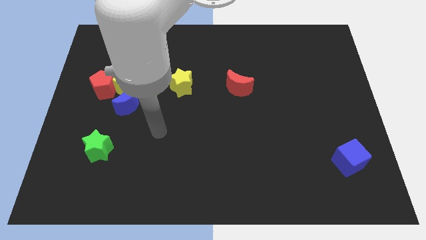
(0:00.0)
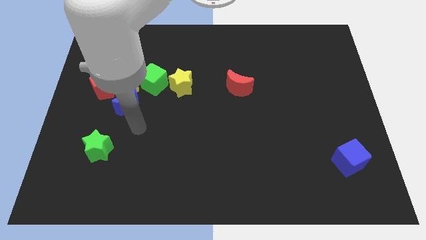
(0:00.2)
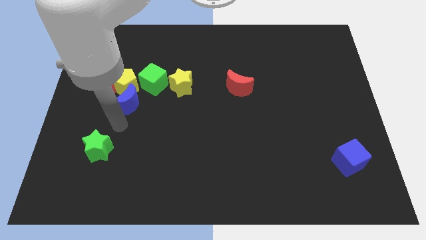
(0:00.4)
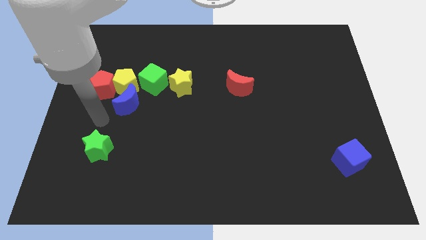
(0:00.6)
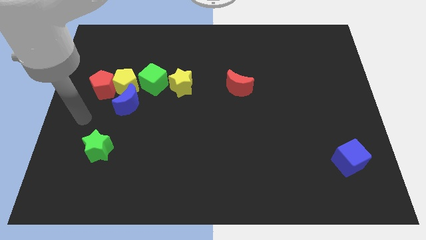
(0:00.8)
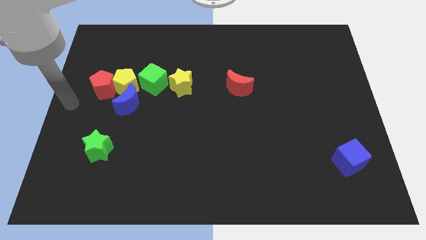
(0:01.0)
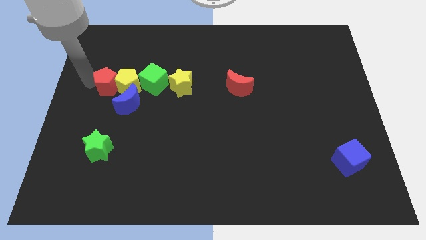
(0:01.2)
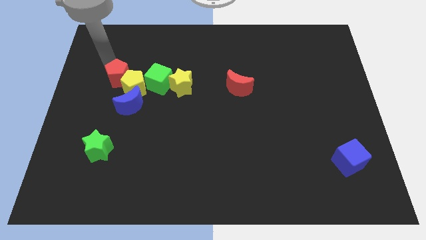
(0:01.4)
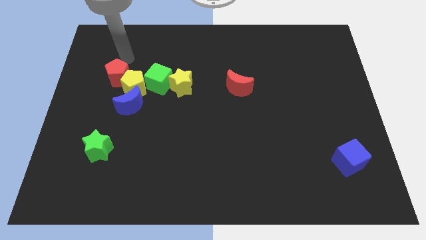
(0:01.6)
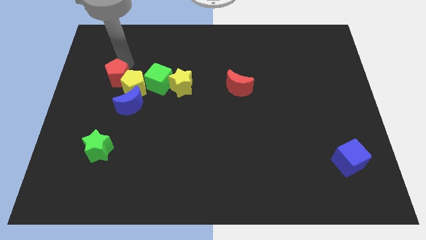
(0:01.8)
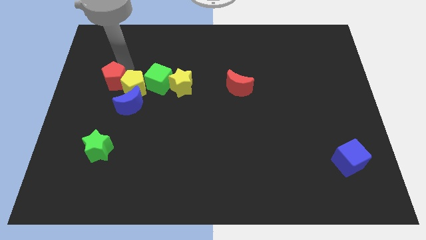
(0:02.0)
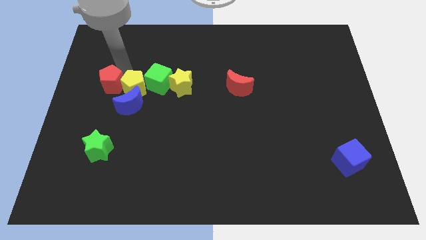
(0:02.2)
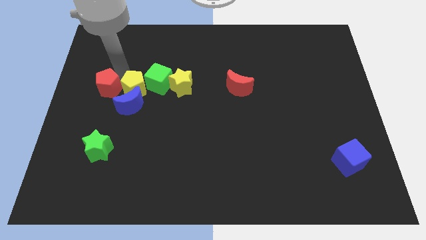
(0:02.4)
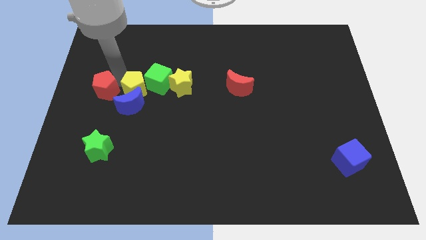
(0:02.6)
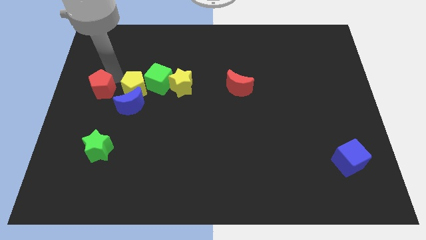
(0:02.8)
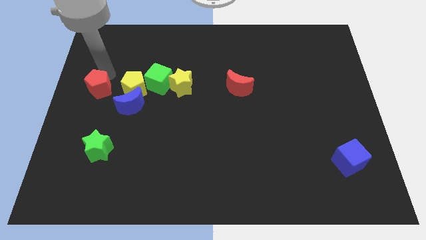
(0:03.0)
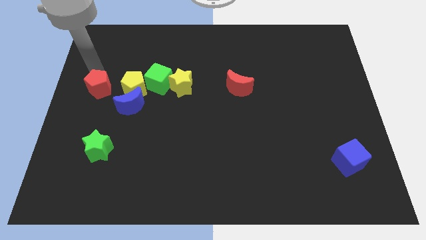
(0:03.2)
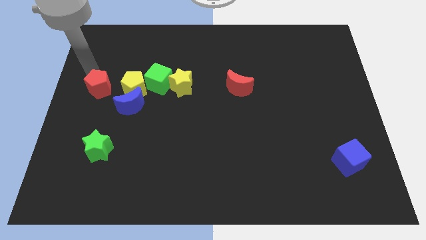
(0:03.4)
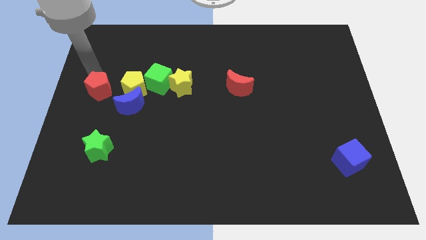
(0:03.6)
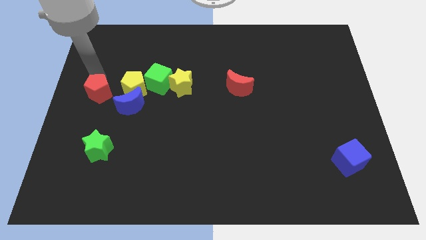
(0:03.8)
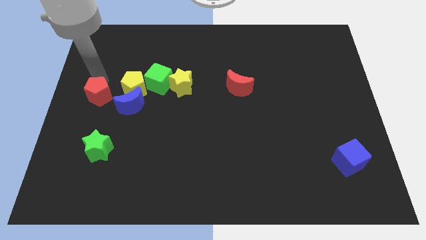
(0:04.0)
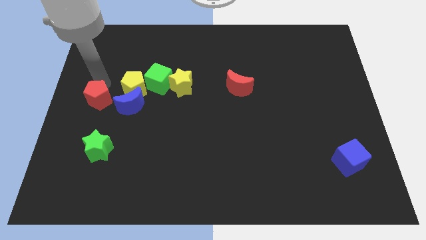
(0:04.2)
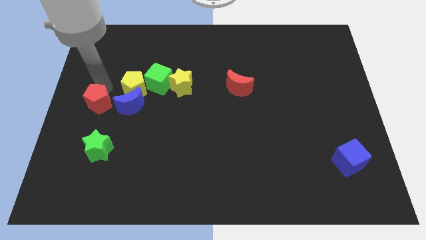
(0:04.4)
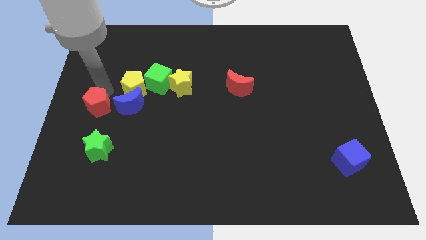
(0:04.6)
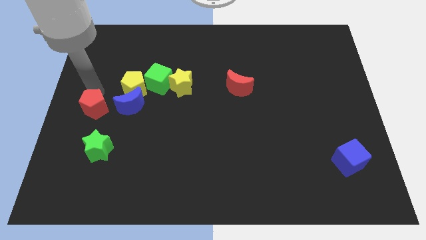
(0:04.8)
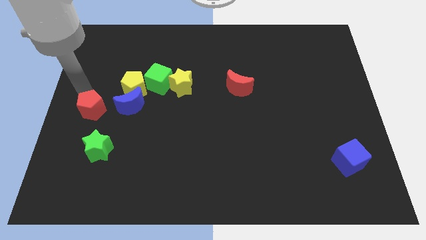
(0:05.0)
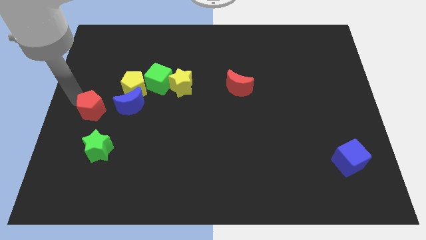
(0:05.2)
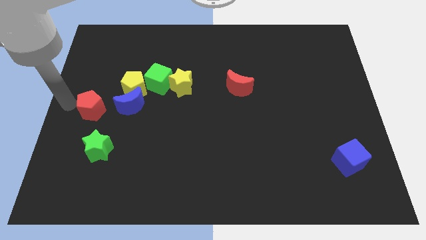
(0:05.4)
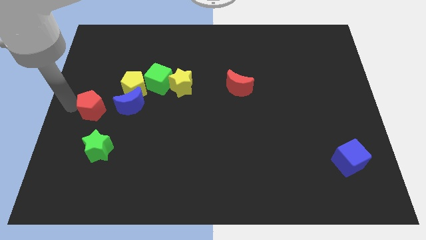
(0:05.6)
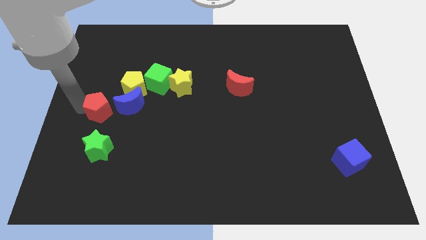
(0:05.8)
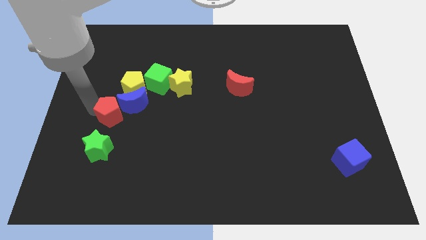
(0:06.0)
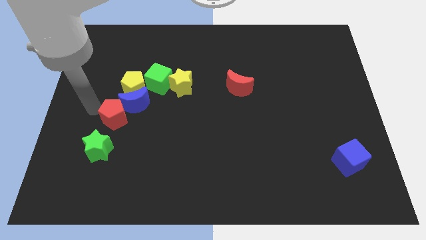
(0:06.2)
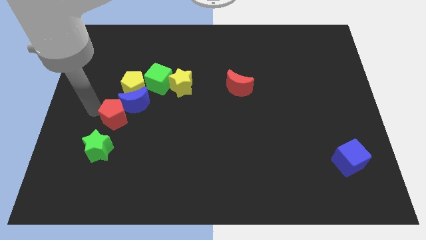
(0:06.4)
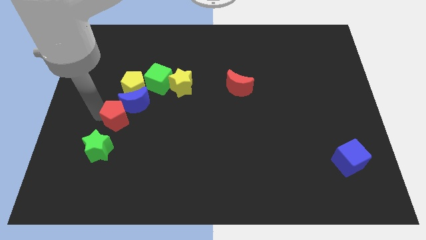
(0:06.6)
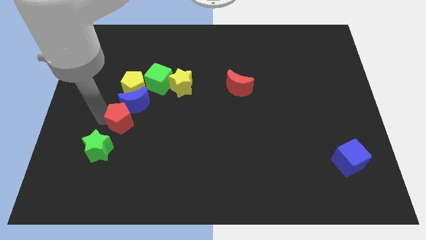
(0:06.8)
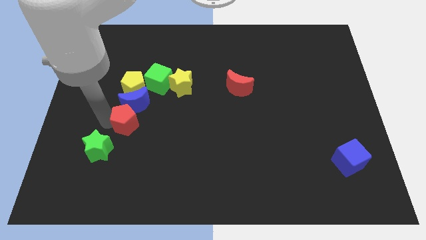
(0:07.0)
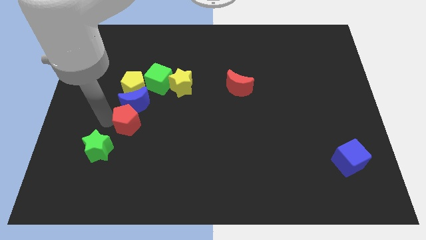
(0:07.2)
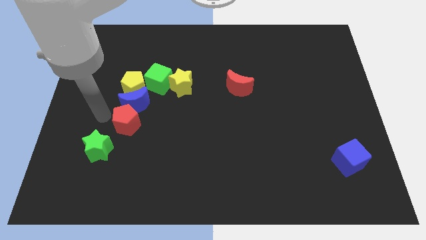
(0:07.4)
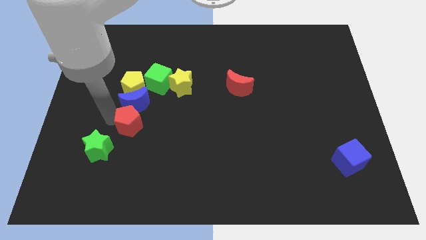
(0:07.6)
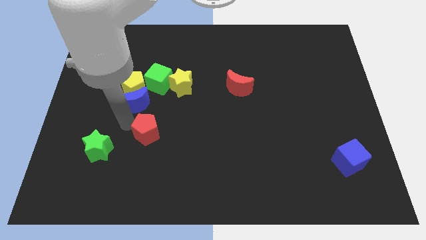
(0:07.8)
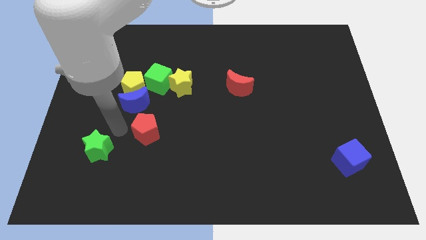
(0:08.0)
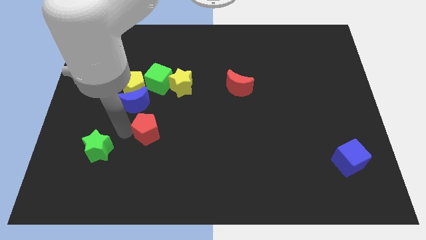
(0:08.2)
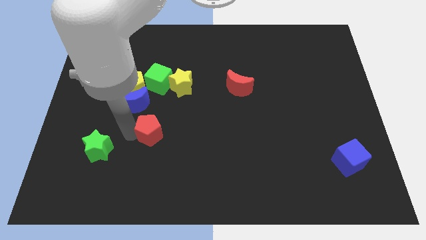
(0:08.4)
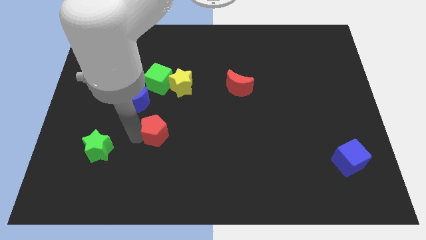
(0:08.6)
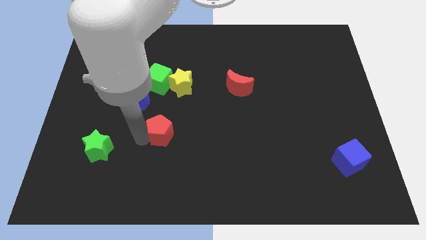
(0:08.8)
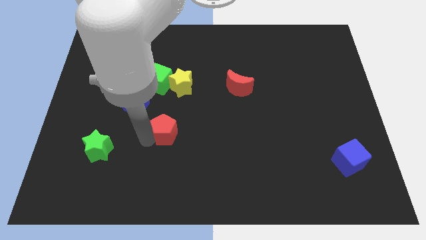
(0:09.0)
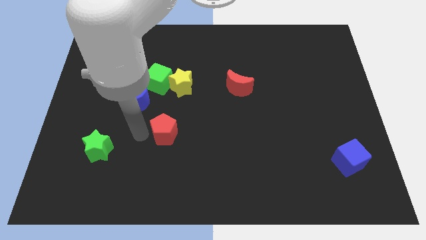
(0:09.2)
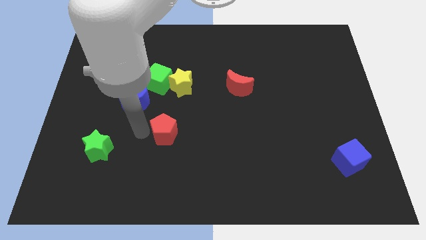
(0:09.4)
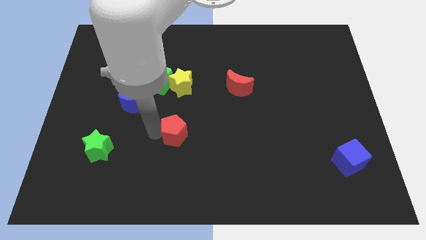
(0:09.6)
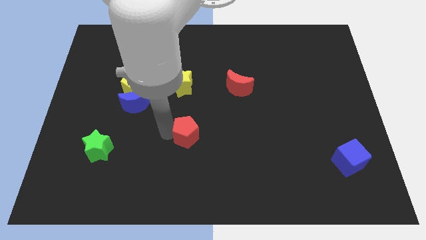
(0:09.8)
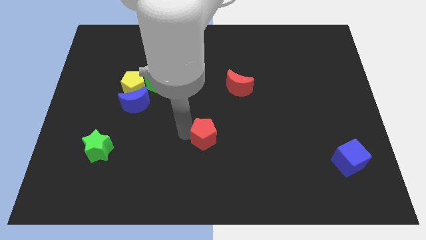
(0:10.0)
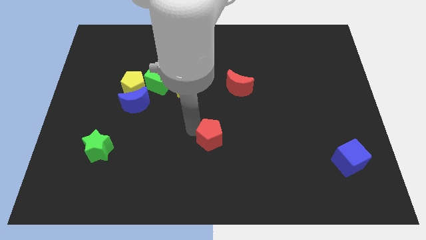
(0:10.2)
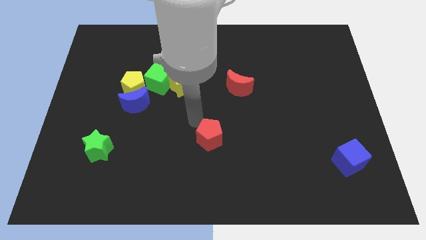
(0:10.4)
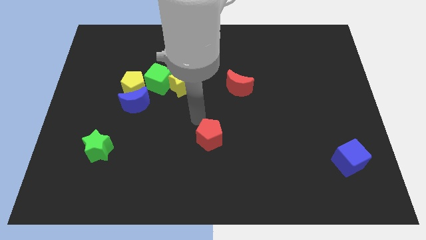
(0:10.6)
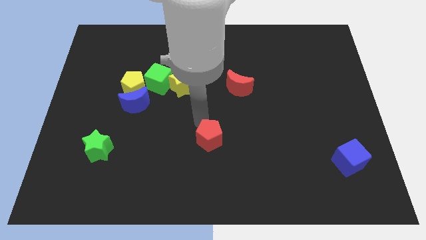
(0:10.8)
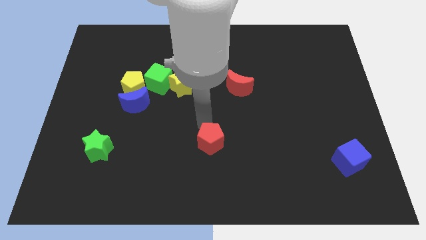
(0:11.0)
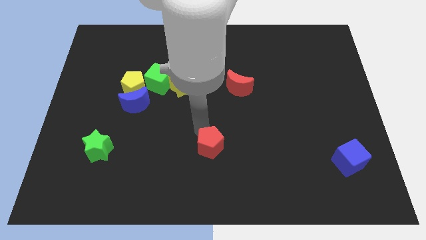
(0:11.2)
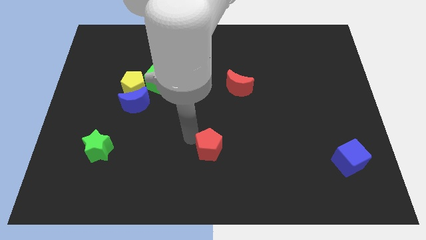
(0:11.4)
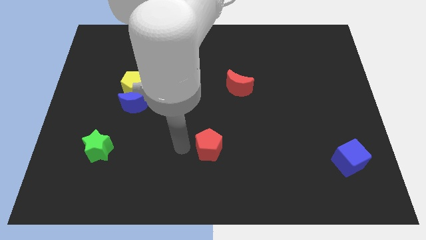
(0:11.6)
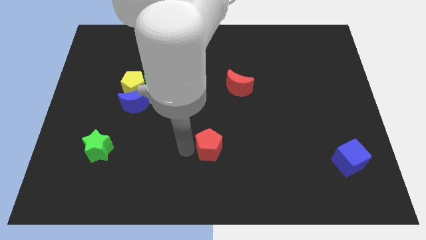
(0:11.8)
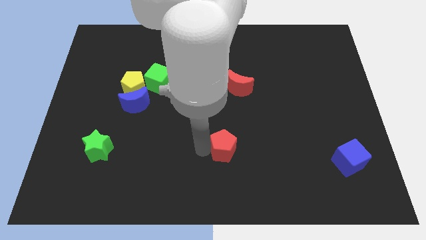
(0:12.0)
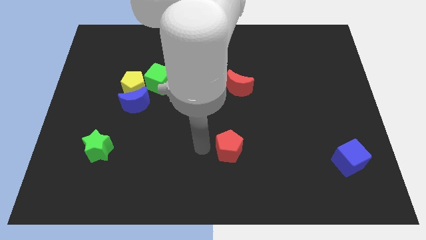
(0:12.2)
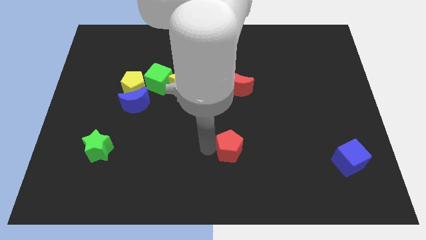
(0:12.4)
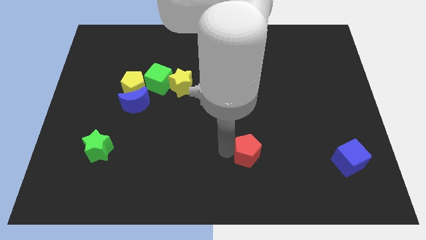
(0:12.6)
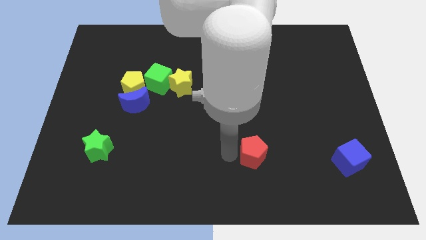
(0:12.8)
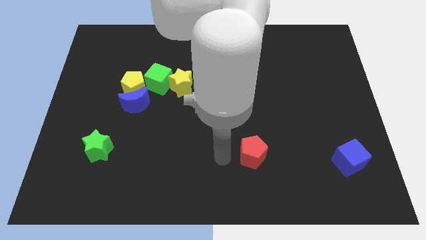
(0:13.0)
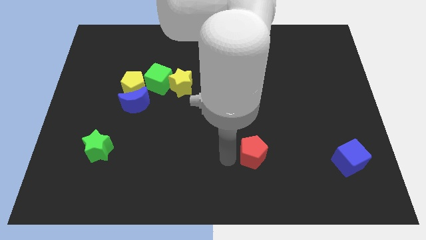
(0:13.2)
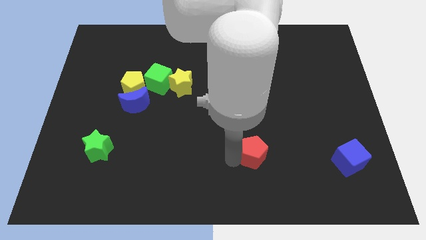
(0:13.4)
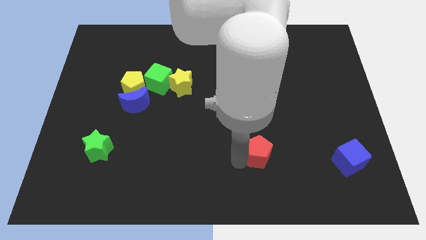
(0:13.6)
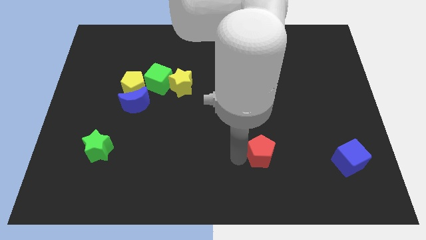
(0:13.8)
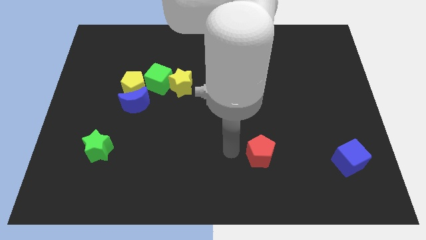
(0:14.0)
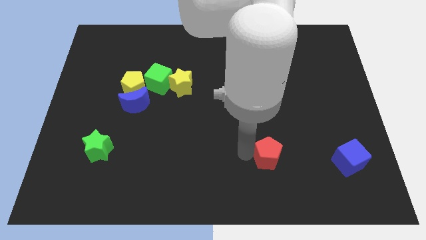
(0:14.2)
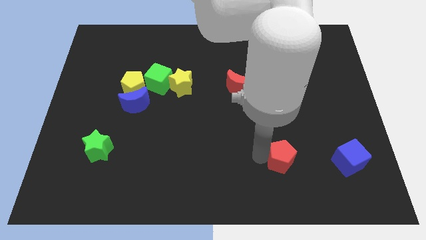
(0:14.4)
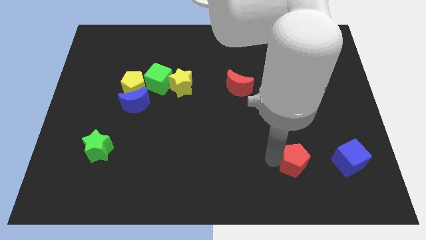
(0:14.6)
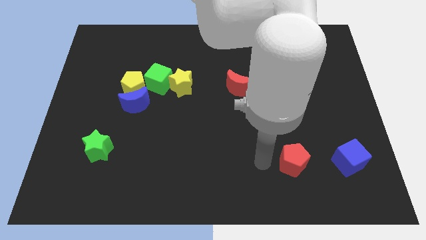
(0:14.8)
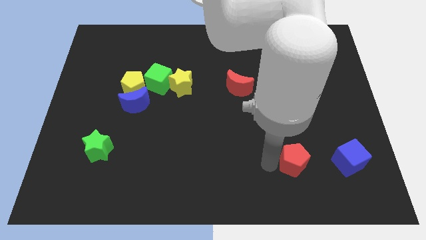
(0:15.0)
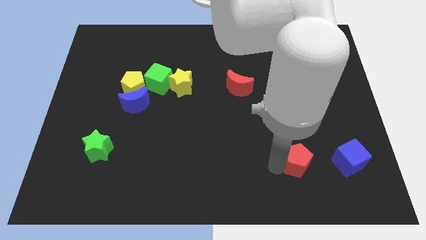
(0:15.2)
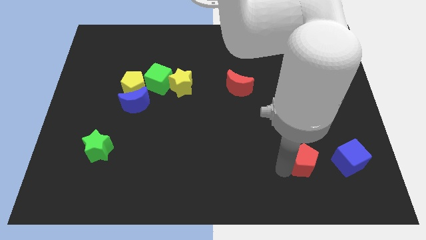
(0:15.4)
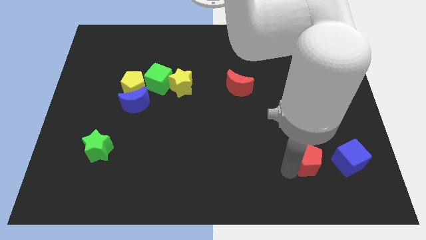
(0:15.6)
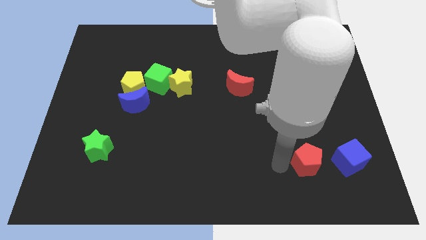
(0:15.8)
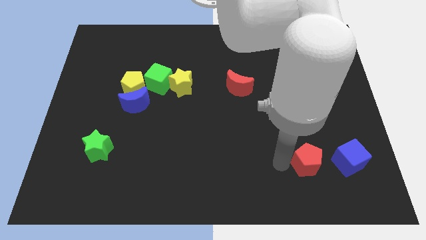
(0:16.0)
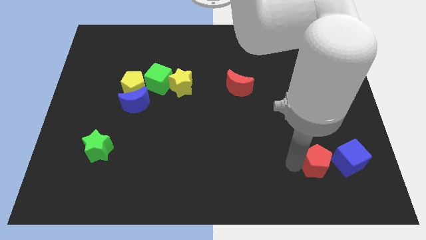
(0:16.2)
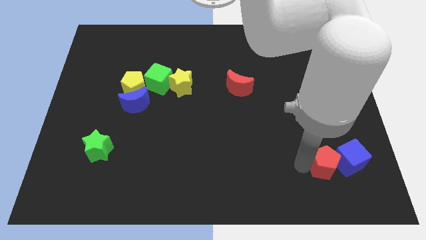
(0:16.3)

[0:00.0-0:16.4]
push the red pentagon to the blue cube
